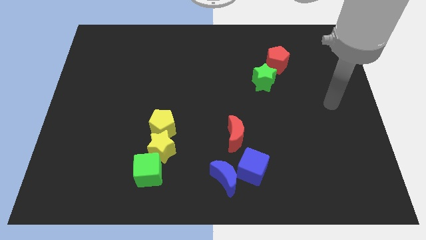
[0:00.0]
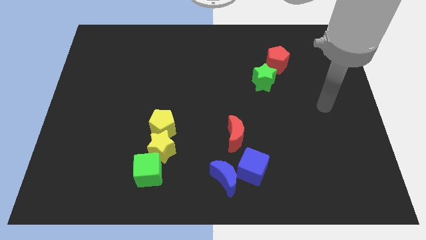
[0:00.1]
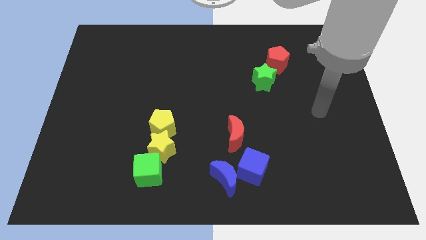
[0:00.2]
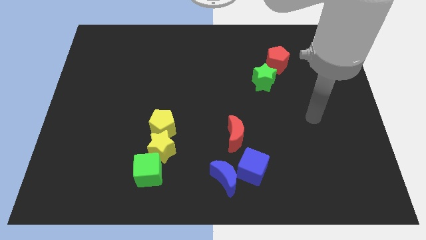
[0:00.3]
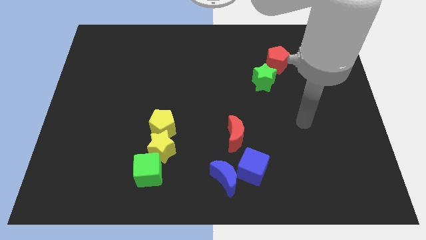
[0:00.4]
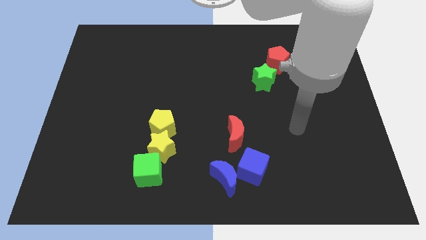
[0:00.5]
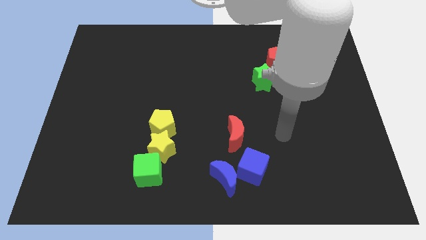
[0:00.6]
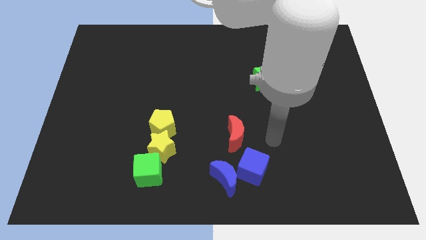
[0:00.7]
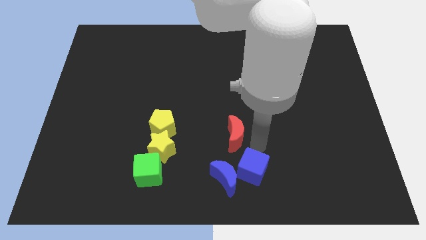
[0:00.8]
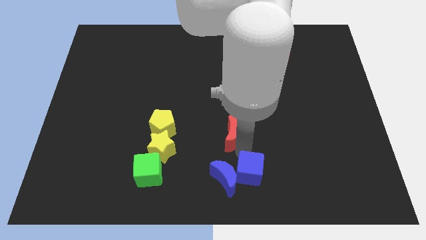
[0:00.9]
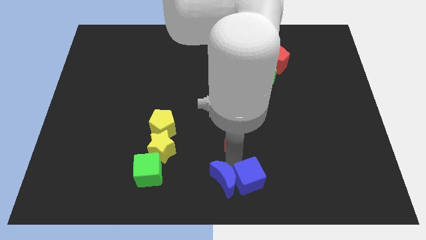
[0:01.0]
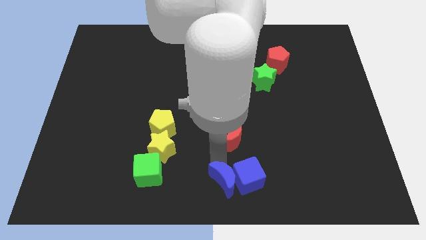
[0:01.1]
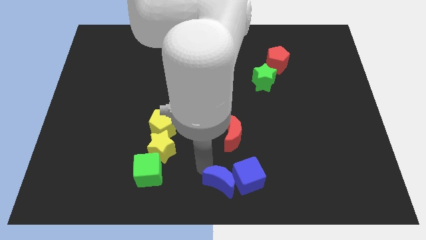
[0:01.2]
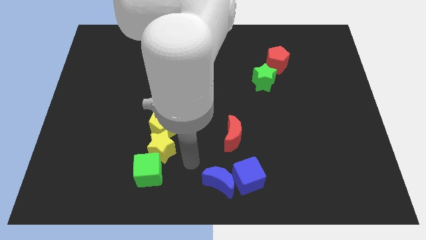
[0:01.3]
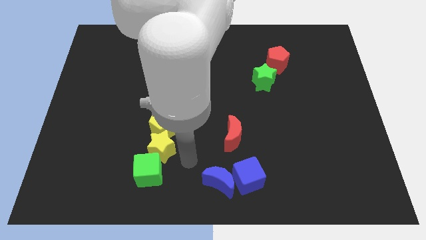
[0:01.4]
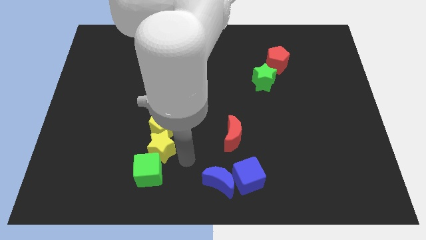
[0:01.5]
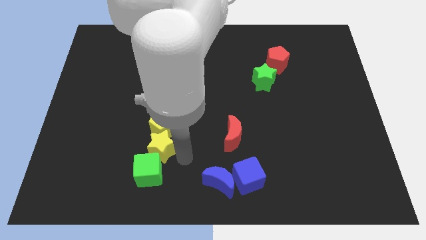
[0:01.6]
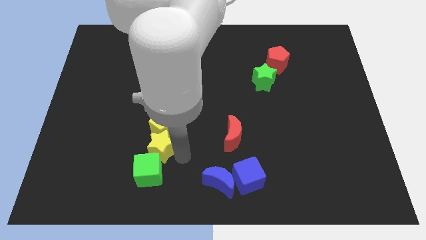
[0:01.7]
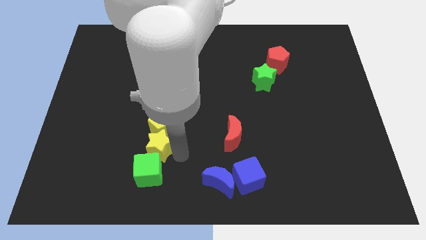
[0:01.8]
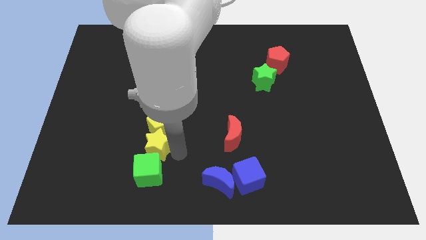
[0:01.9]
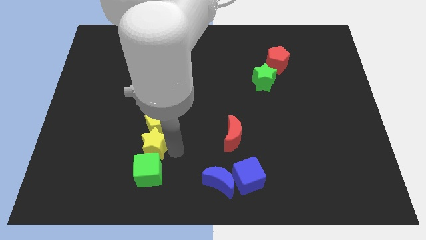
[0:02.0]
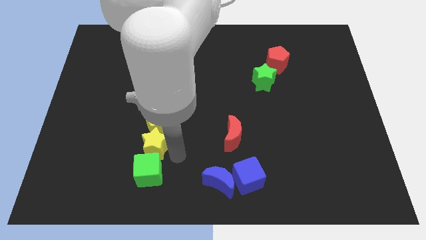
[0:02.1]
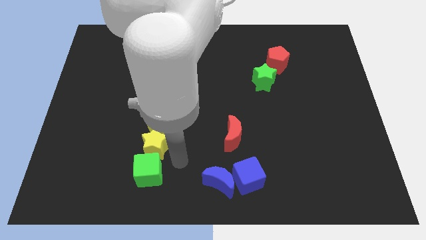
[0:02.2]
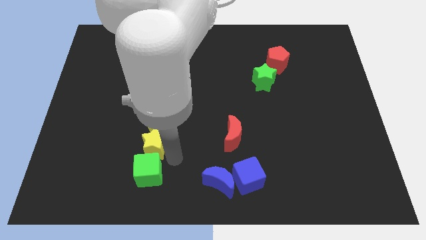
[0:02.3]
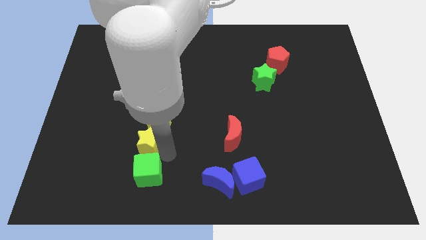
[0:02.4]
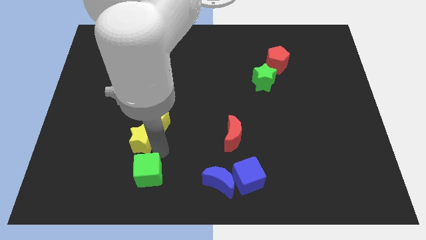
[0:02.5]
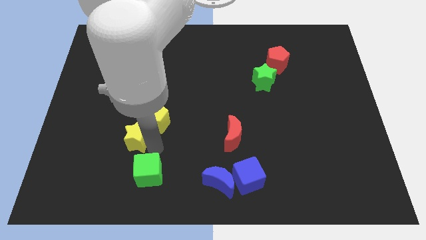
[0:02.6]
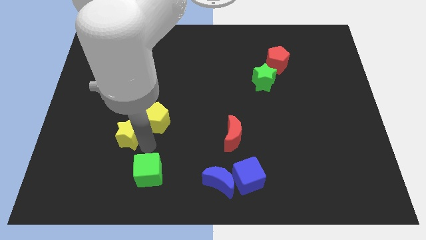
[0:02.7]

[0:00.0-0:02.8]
move the yellow star diagonally up and to the left slightly

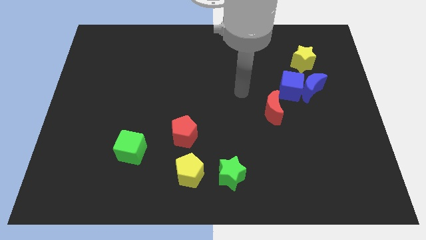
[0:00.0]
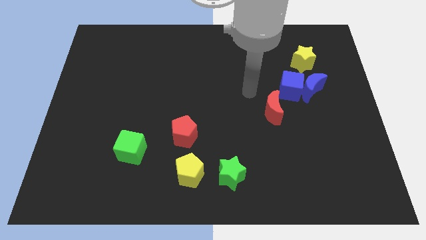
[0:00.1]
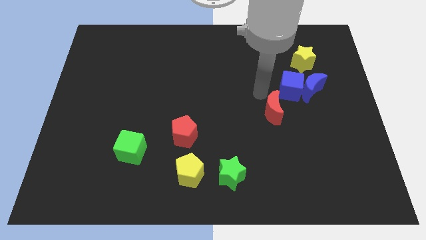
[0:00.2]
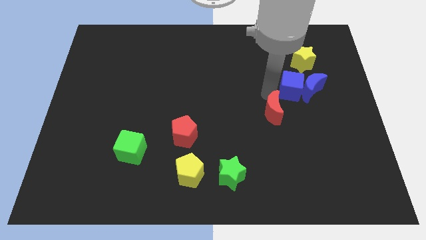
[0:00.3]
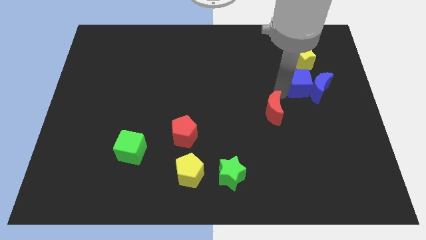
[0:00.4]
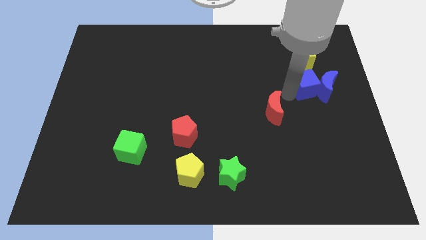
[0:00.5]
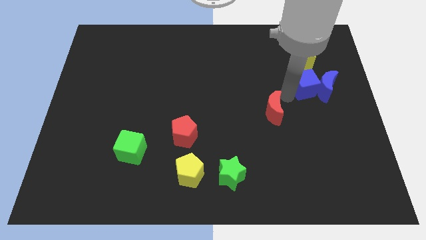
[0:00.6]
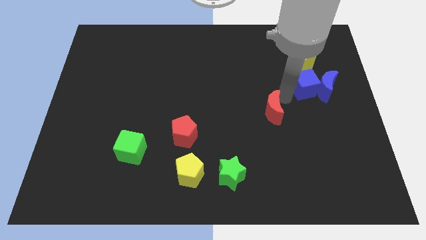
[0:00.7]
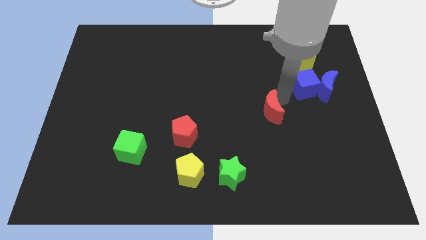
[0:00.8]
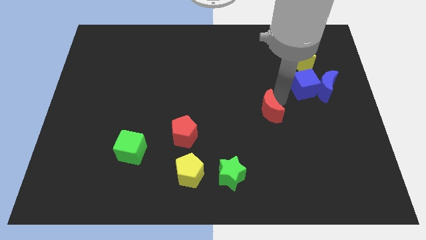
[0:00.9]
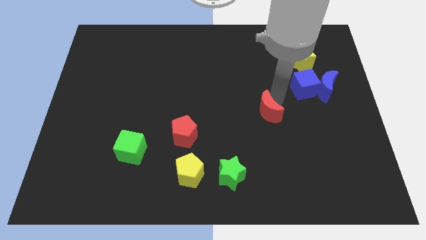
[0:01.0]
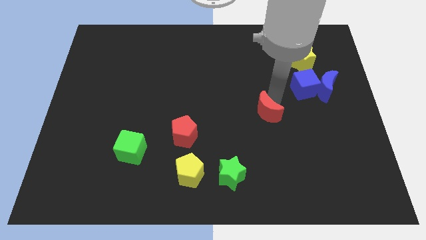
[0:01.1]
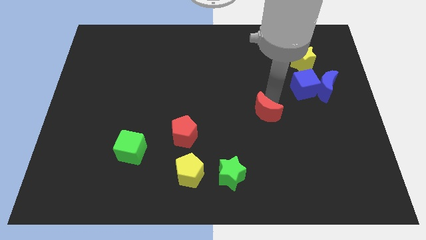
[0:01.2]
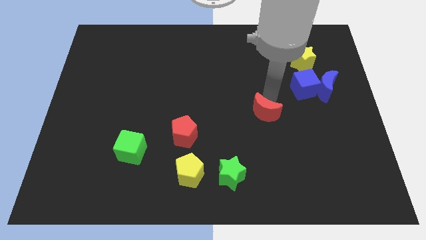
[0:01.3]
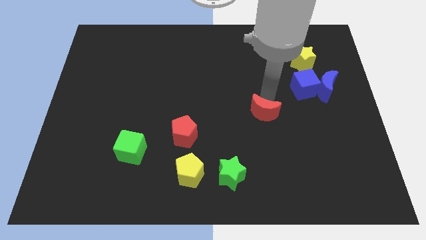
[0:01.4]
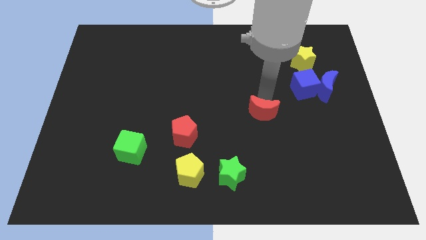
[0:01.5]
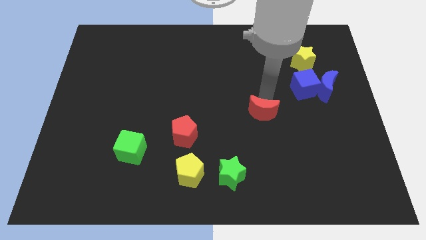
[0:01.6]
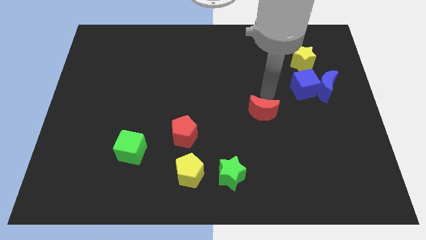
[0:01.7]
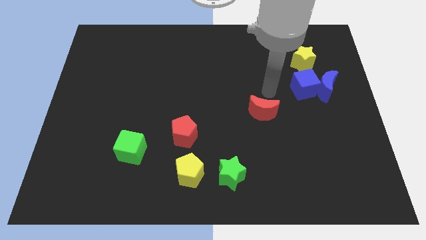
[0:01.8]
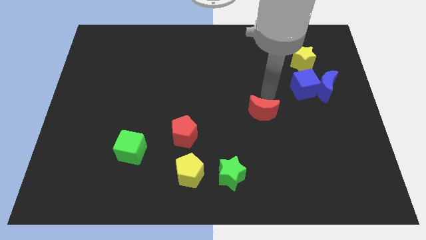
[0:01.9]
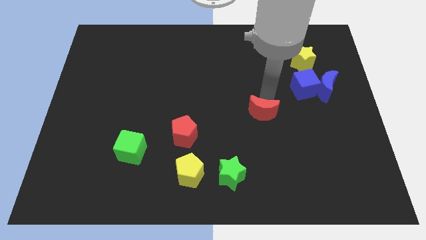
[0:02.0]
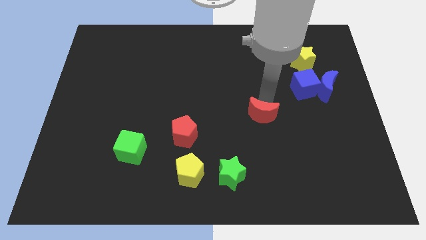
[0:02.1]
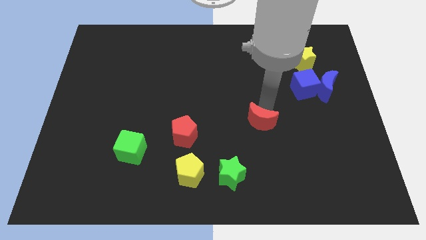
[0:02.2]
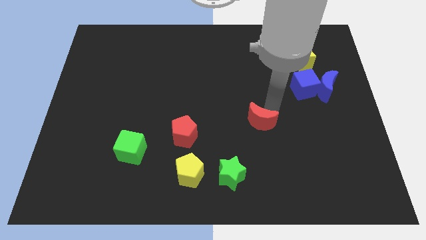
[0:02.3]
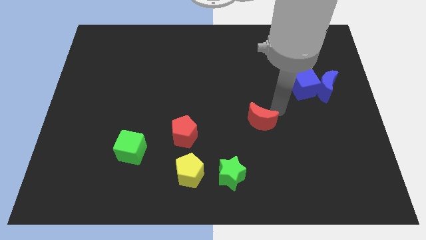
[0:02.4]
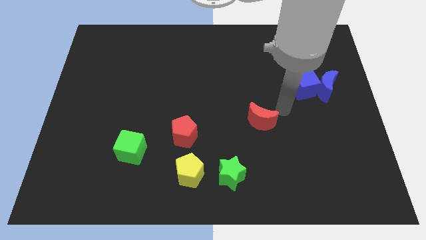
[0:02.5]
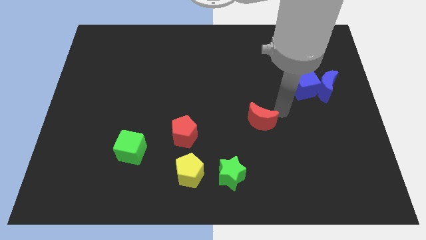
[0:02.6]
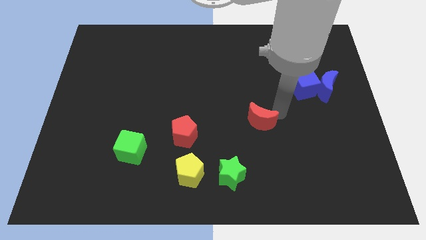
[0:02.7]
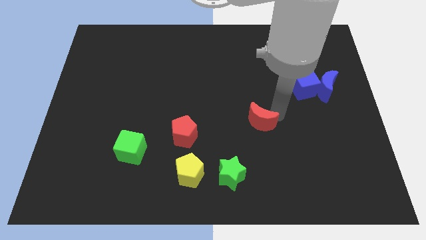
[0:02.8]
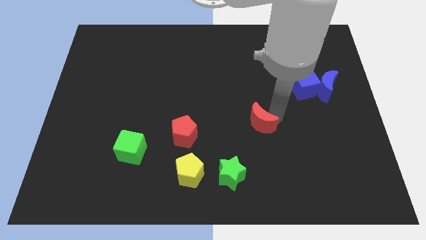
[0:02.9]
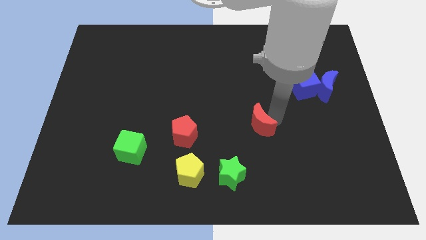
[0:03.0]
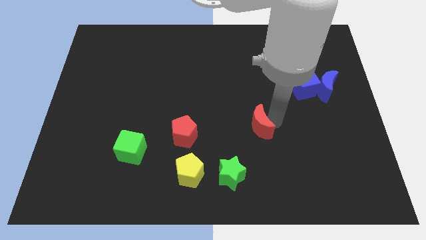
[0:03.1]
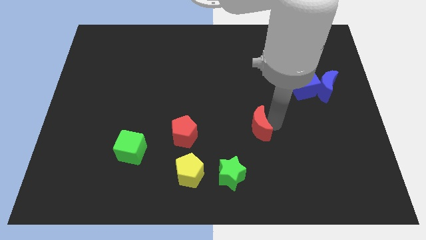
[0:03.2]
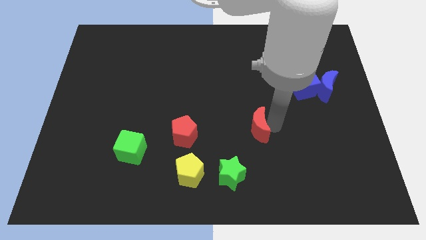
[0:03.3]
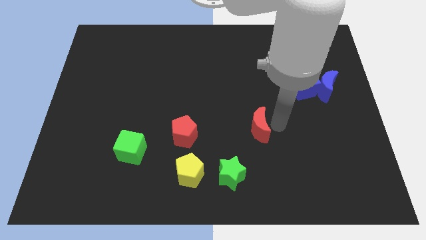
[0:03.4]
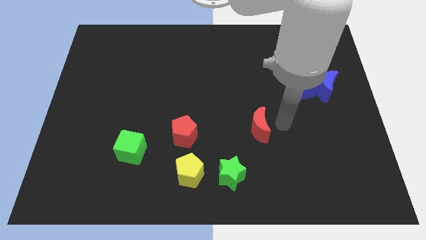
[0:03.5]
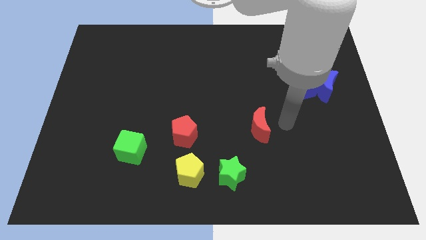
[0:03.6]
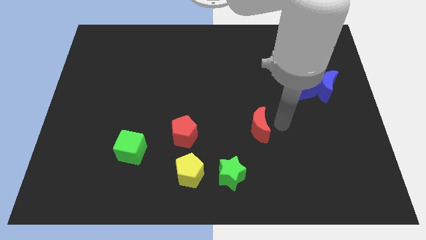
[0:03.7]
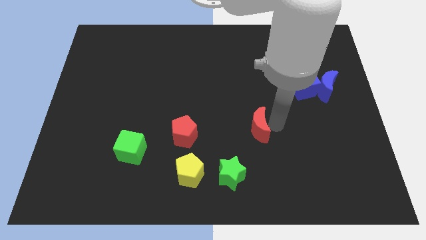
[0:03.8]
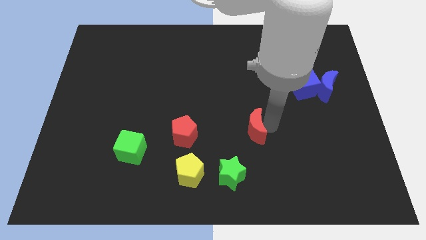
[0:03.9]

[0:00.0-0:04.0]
slightly move the red moon down and to the left

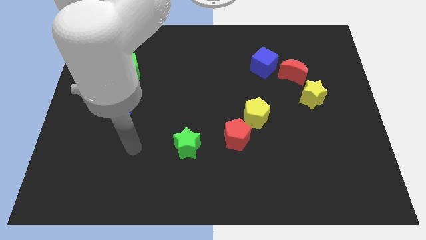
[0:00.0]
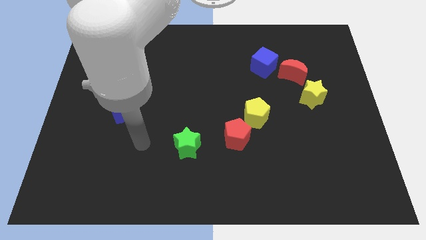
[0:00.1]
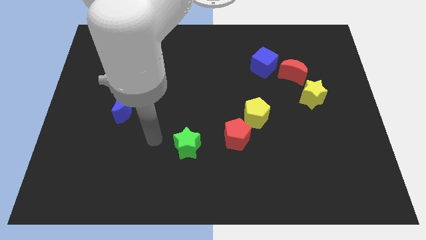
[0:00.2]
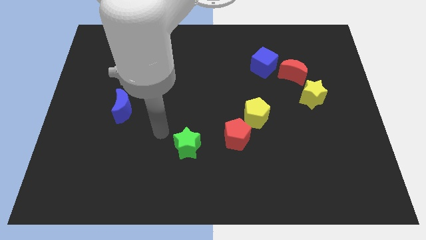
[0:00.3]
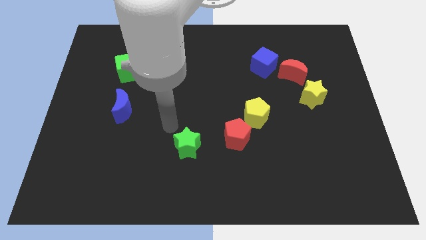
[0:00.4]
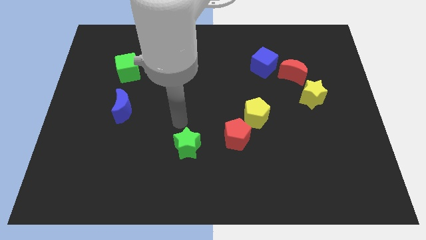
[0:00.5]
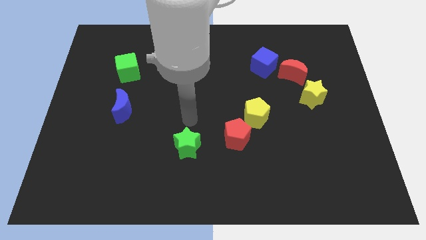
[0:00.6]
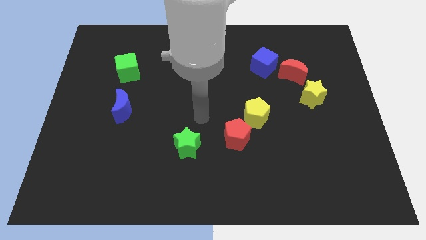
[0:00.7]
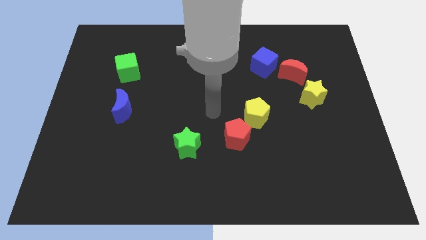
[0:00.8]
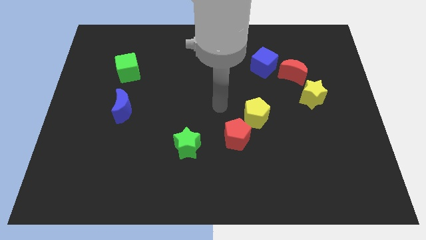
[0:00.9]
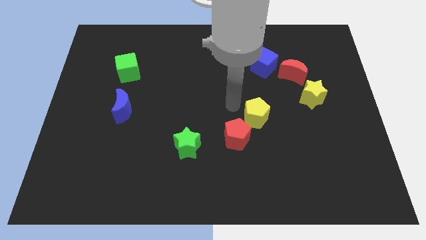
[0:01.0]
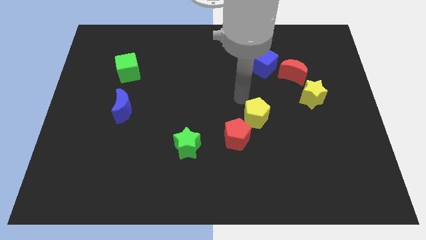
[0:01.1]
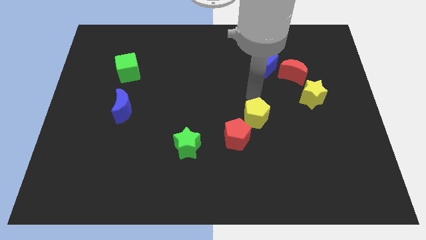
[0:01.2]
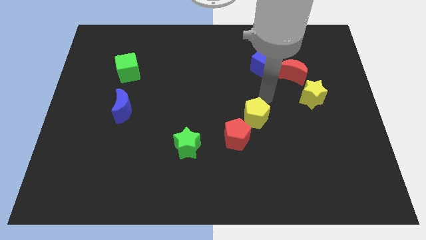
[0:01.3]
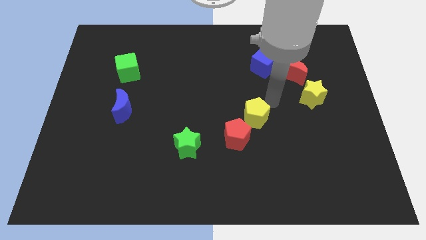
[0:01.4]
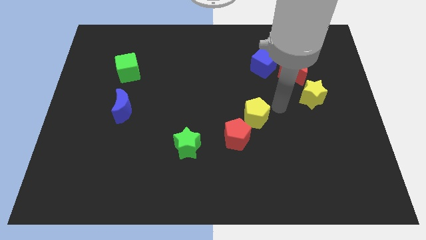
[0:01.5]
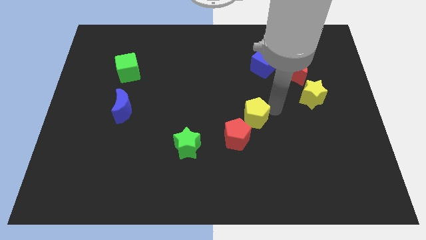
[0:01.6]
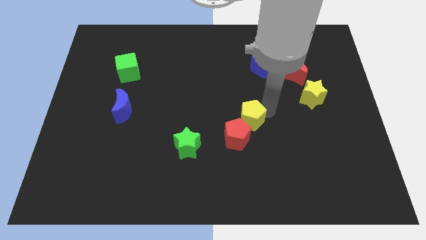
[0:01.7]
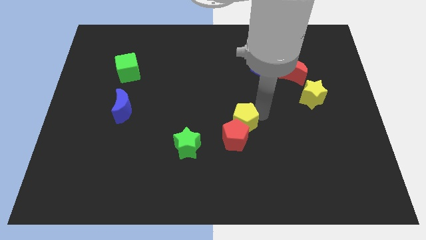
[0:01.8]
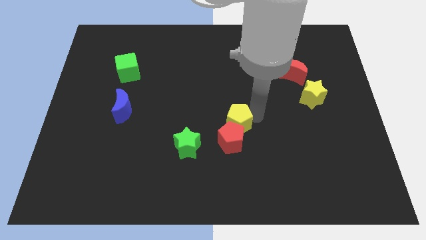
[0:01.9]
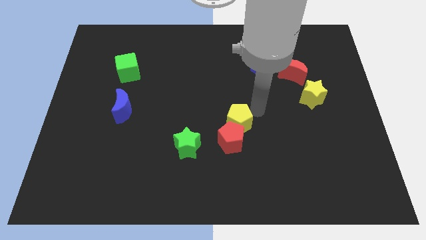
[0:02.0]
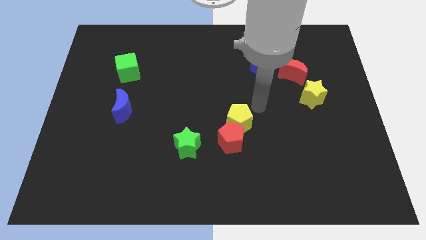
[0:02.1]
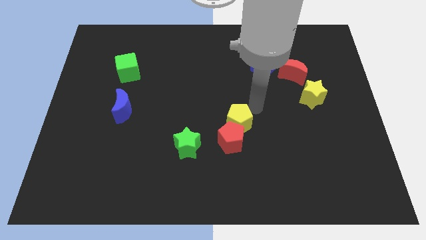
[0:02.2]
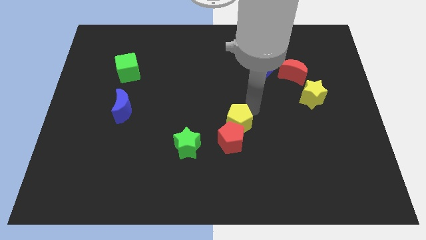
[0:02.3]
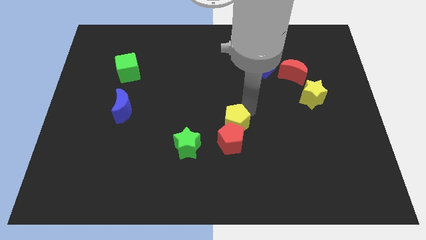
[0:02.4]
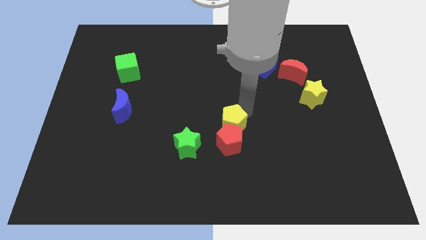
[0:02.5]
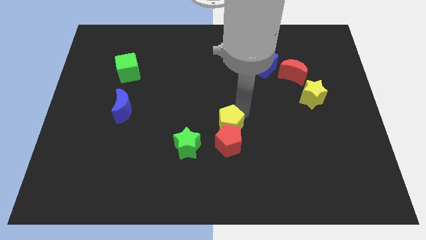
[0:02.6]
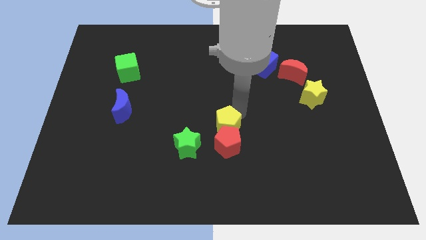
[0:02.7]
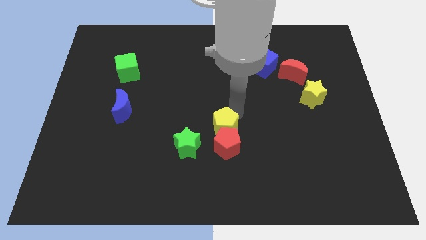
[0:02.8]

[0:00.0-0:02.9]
slightly move the yellow pentagon downwards and then to the left
